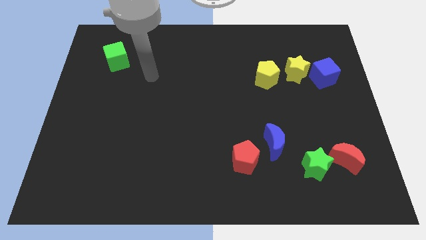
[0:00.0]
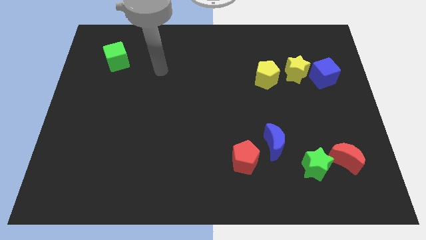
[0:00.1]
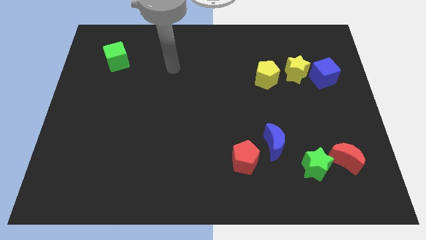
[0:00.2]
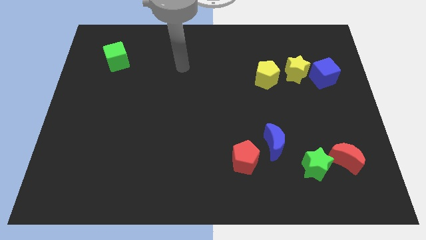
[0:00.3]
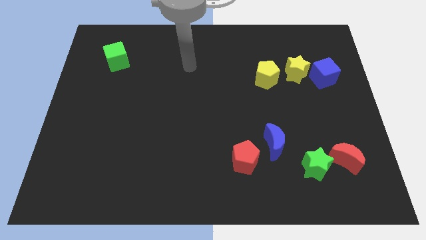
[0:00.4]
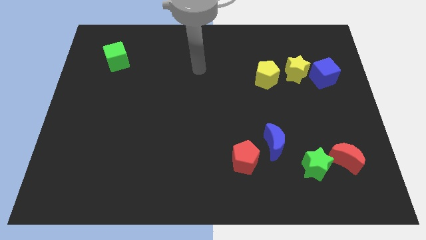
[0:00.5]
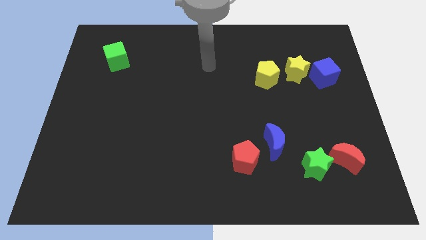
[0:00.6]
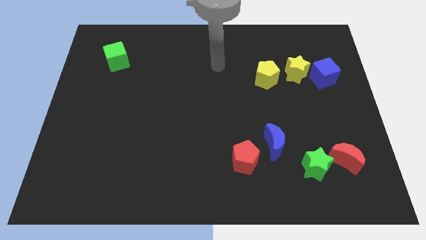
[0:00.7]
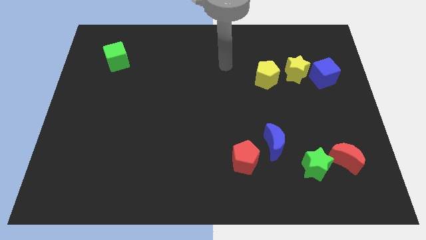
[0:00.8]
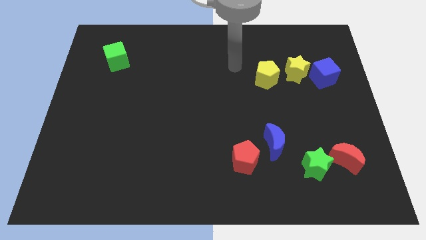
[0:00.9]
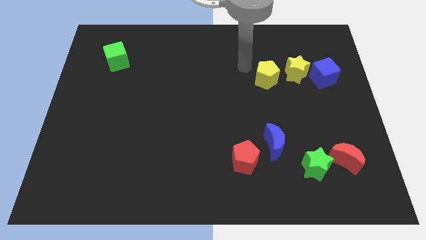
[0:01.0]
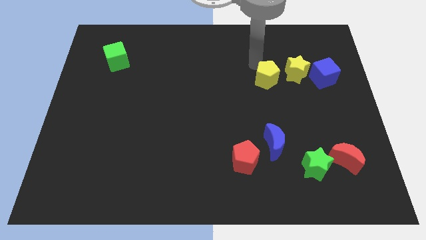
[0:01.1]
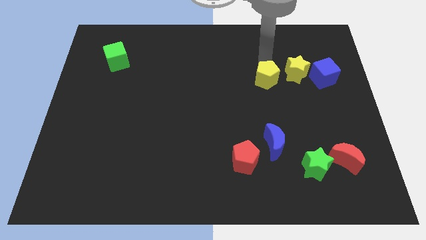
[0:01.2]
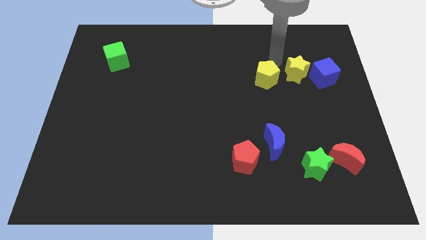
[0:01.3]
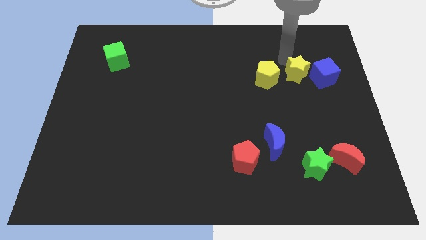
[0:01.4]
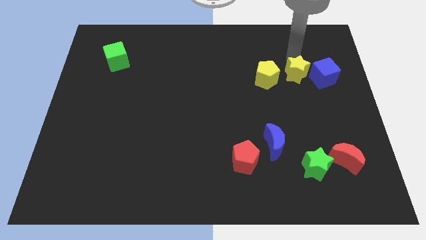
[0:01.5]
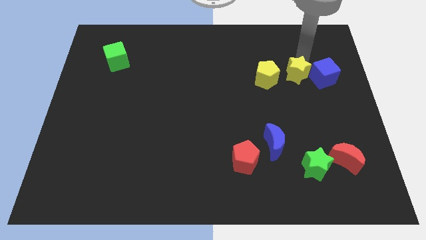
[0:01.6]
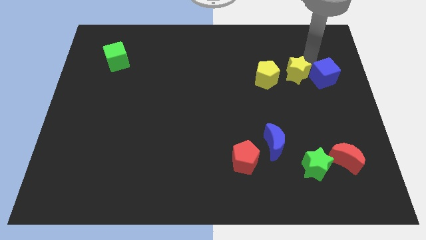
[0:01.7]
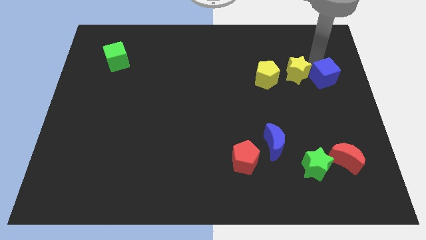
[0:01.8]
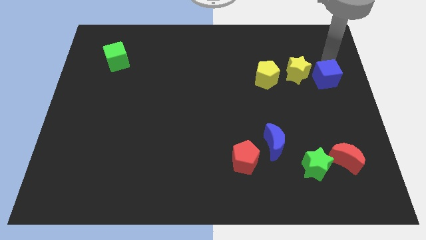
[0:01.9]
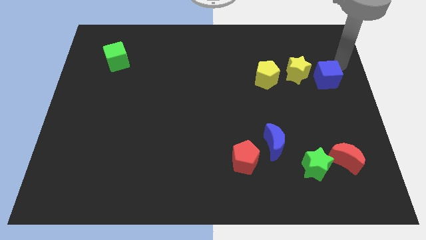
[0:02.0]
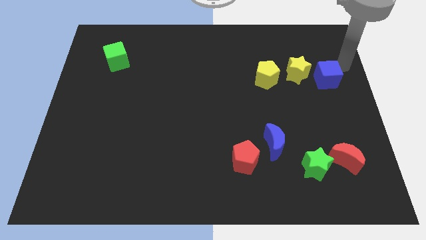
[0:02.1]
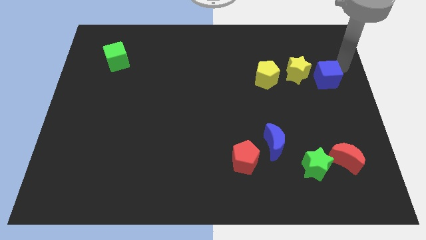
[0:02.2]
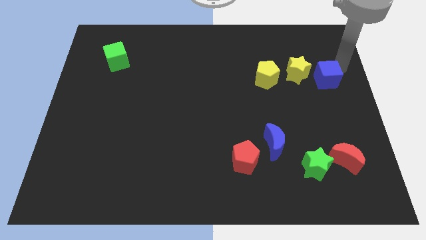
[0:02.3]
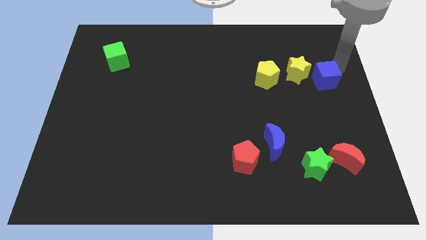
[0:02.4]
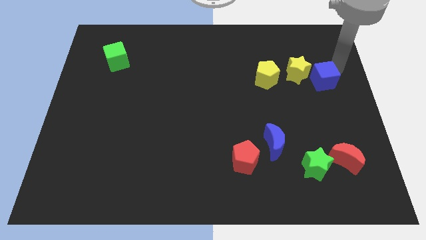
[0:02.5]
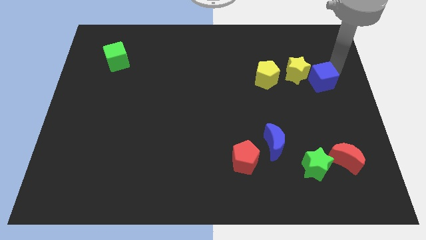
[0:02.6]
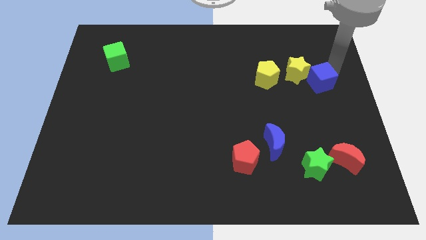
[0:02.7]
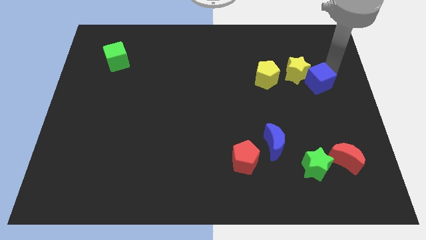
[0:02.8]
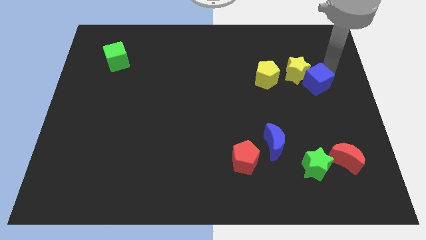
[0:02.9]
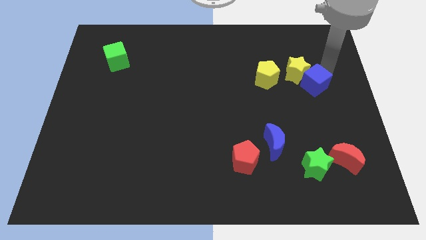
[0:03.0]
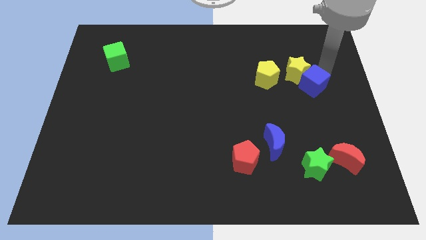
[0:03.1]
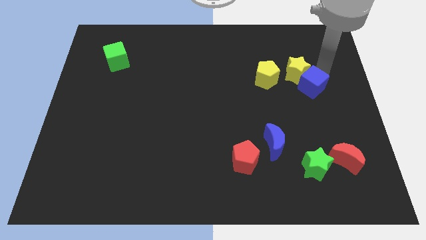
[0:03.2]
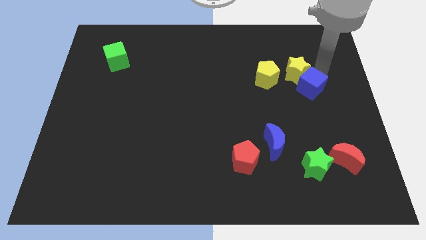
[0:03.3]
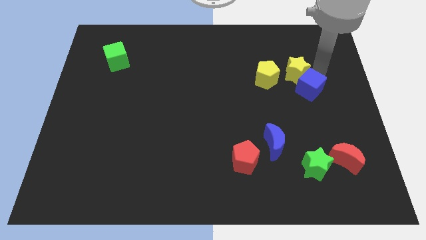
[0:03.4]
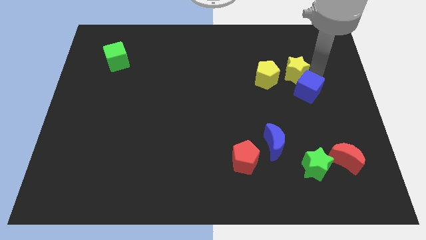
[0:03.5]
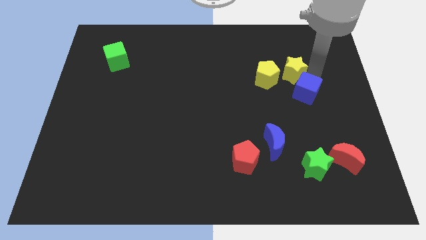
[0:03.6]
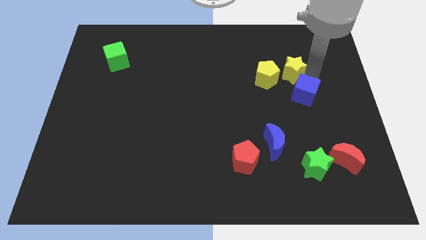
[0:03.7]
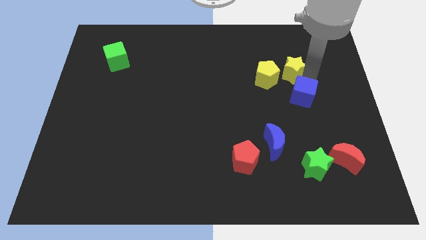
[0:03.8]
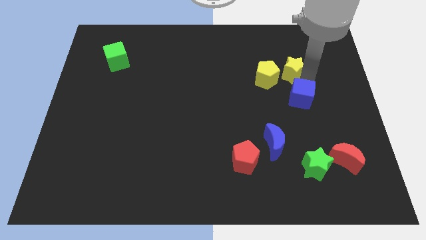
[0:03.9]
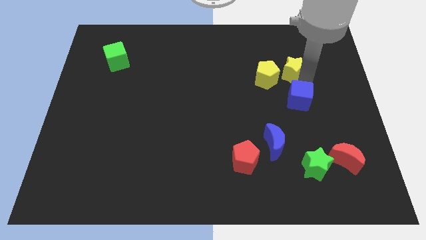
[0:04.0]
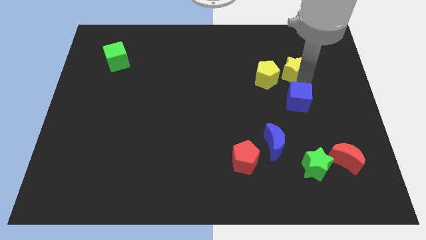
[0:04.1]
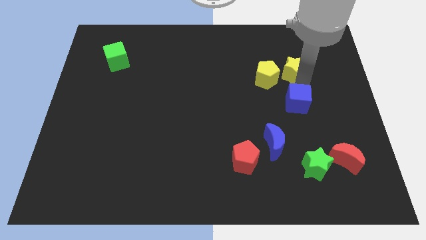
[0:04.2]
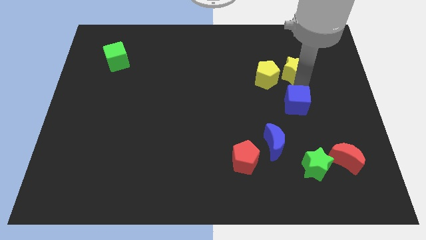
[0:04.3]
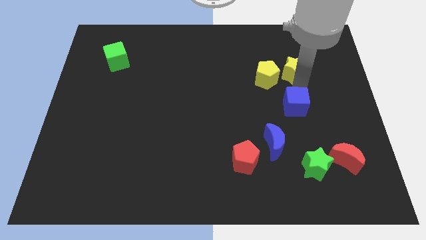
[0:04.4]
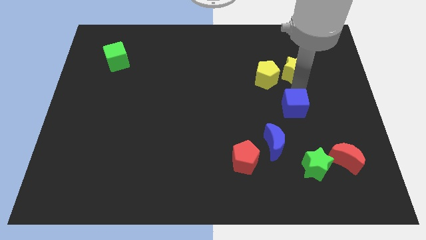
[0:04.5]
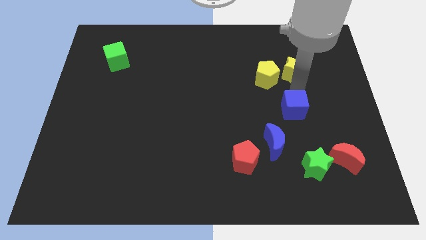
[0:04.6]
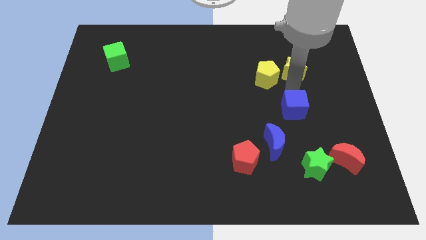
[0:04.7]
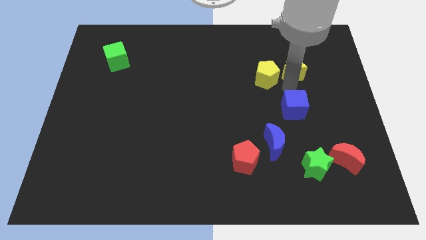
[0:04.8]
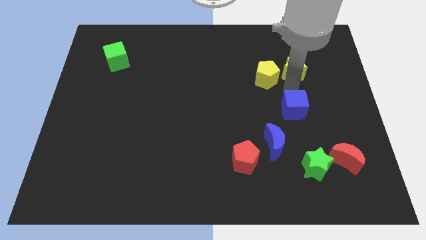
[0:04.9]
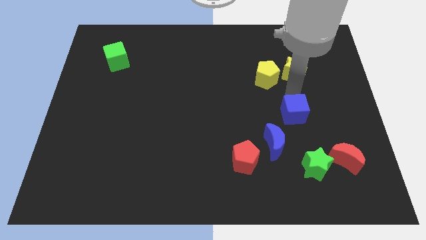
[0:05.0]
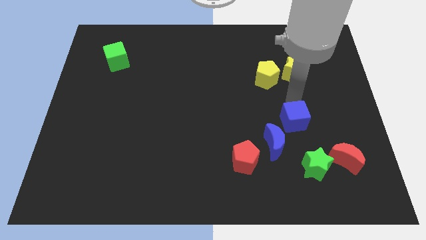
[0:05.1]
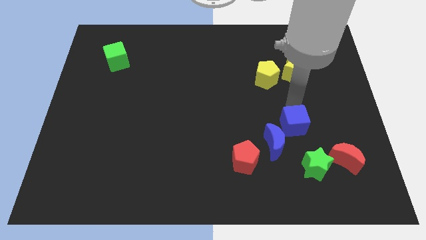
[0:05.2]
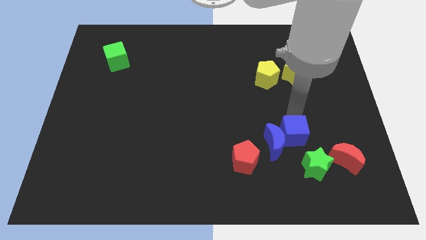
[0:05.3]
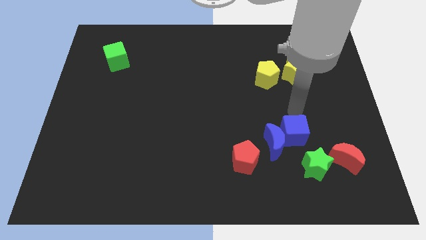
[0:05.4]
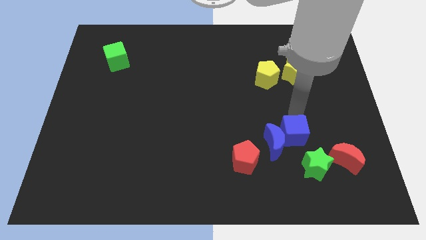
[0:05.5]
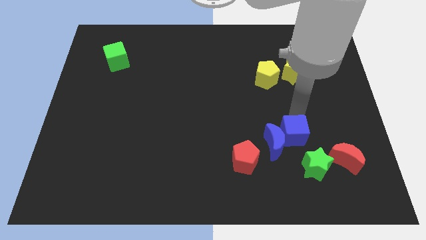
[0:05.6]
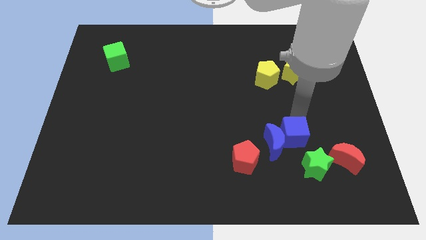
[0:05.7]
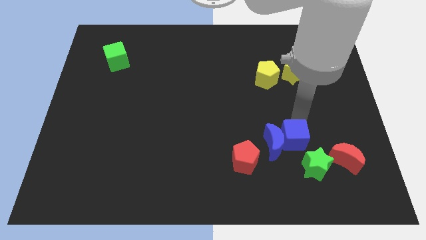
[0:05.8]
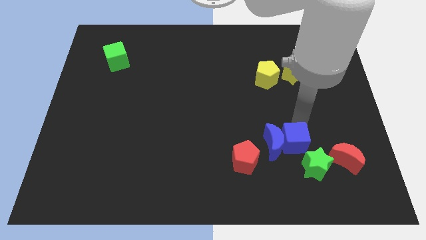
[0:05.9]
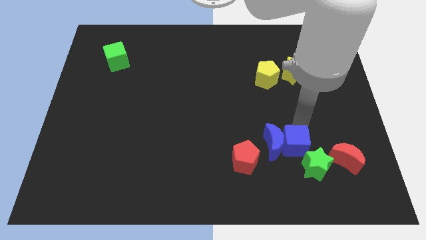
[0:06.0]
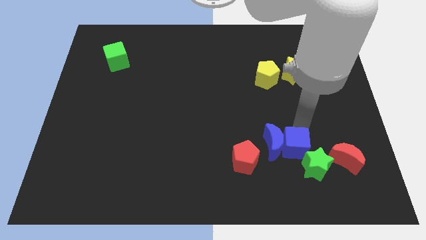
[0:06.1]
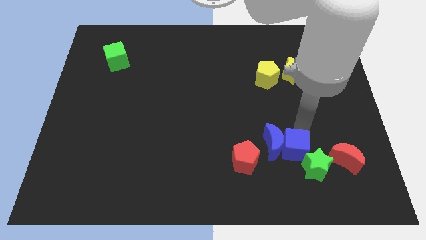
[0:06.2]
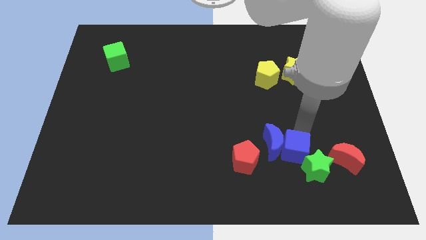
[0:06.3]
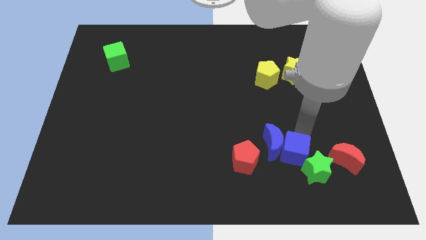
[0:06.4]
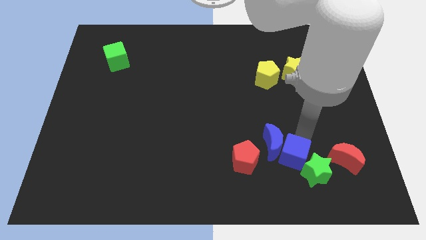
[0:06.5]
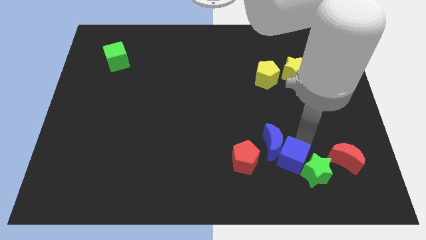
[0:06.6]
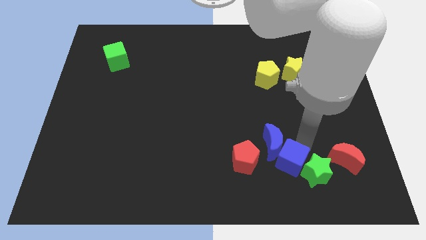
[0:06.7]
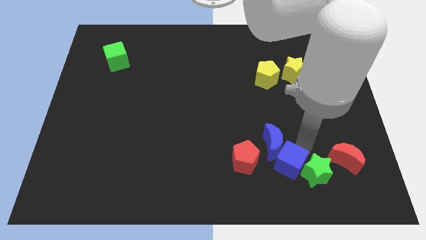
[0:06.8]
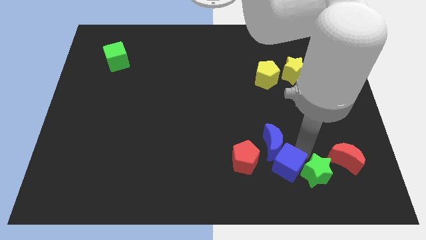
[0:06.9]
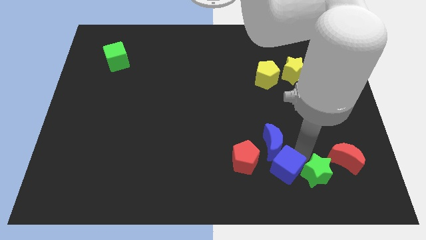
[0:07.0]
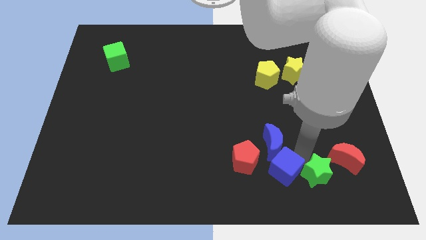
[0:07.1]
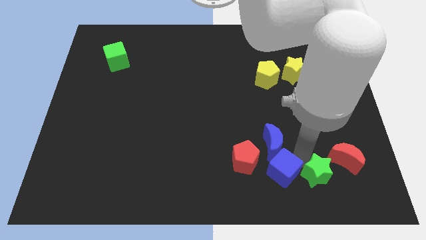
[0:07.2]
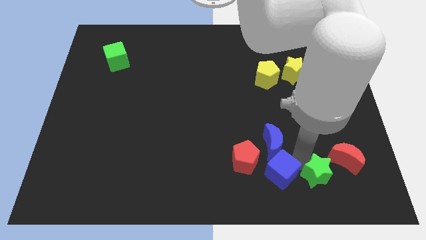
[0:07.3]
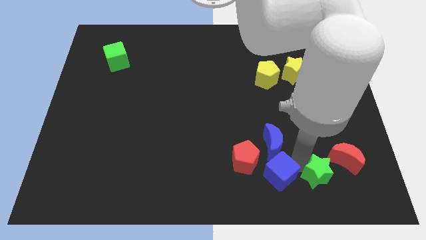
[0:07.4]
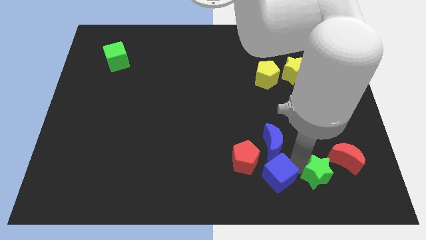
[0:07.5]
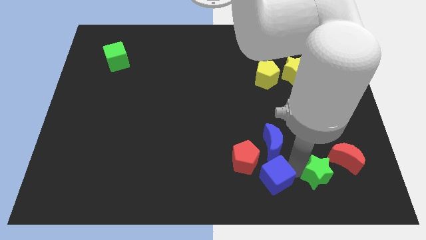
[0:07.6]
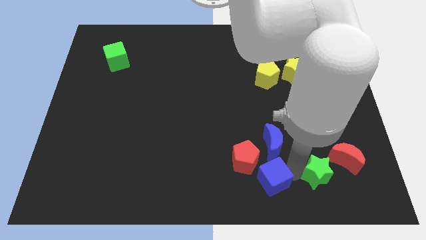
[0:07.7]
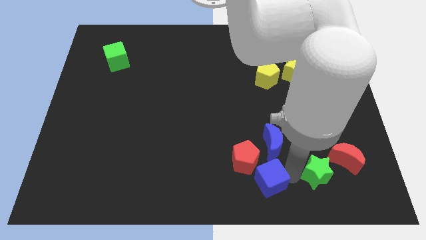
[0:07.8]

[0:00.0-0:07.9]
push the blue cube to the bottom
